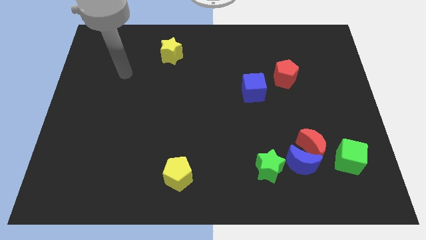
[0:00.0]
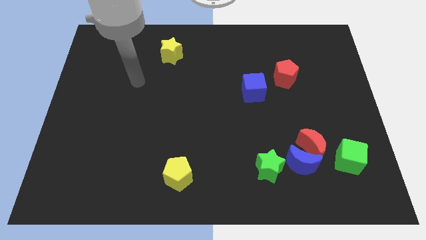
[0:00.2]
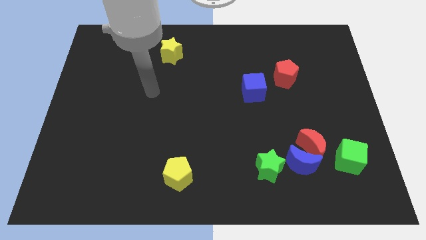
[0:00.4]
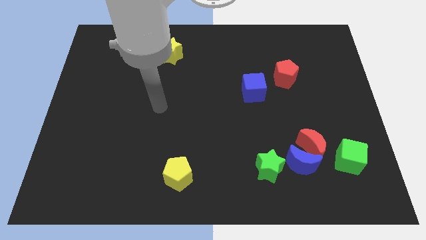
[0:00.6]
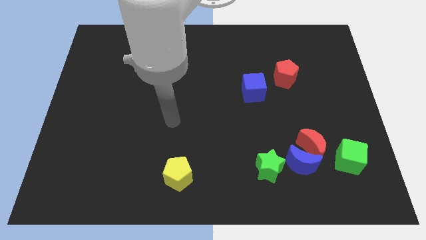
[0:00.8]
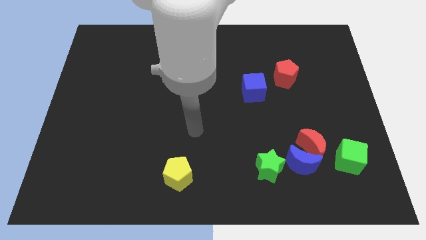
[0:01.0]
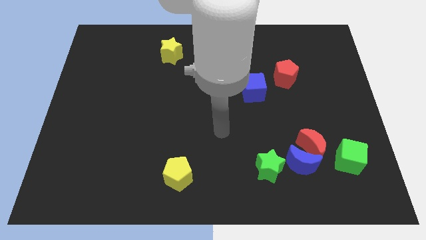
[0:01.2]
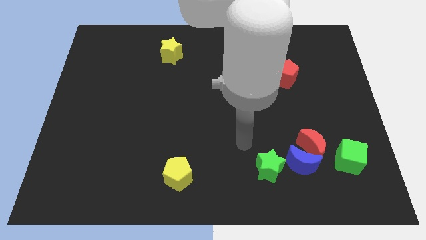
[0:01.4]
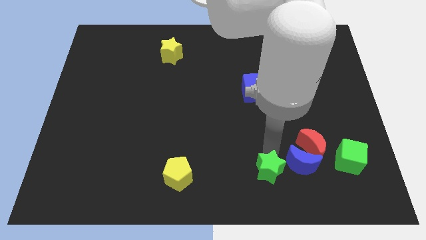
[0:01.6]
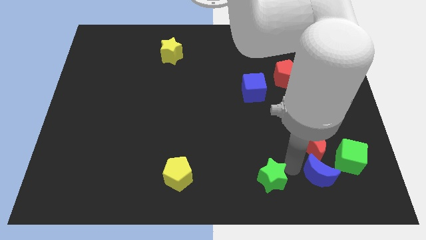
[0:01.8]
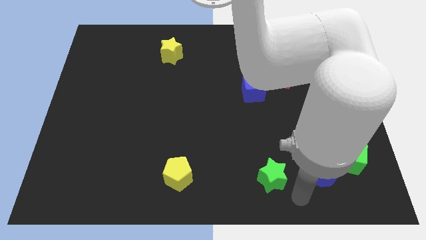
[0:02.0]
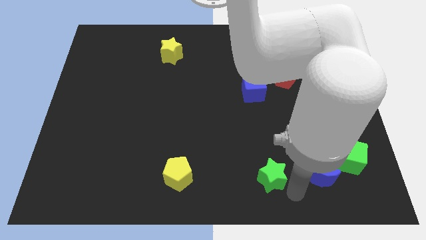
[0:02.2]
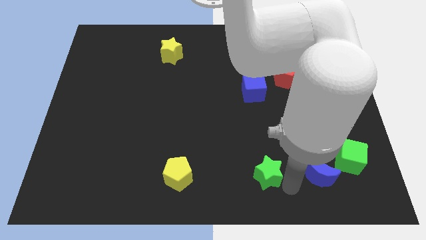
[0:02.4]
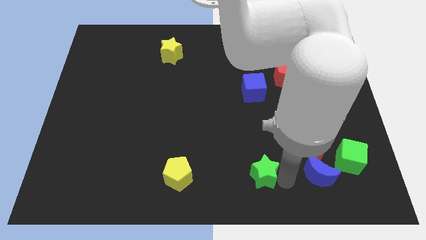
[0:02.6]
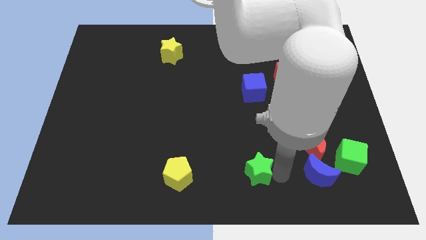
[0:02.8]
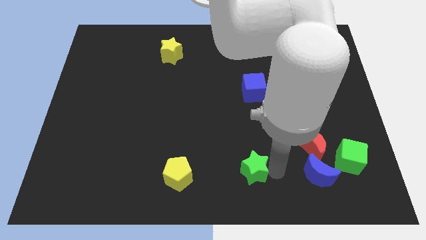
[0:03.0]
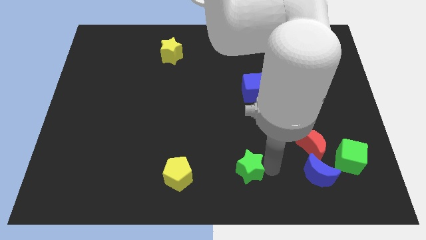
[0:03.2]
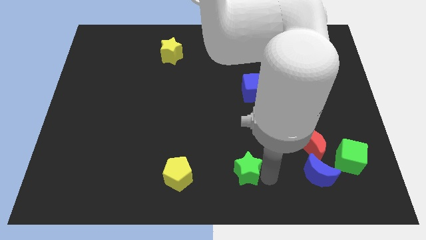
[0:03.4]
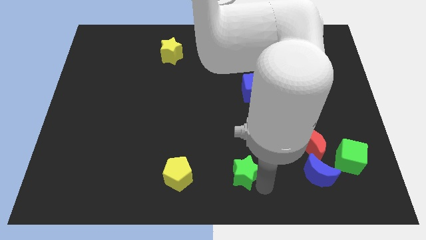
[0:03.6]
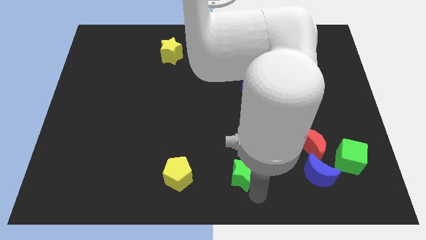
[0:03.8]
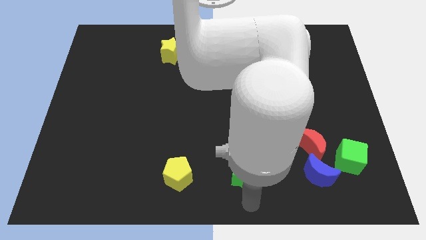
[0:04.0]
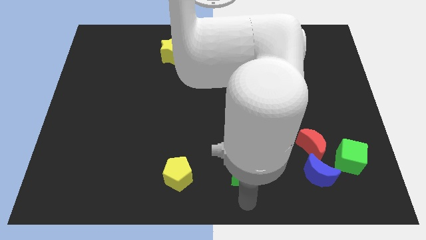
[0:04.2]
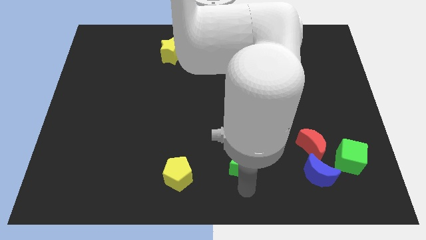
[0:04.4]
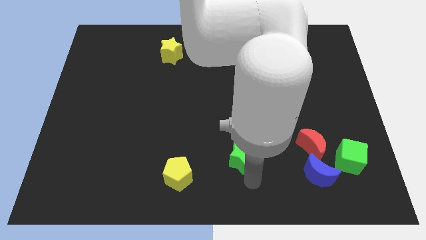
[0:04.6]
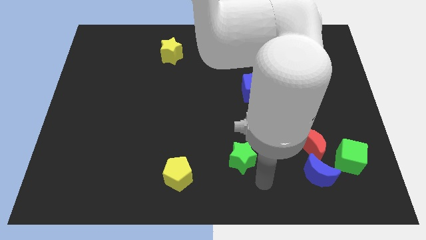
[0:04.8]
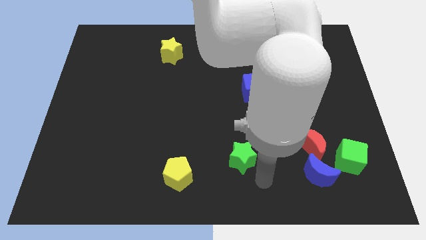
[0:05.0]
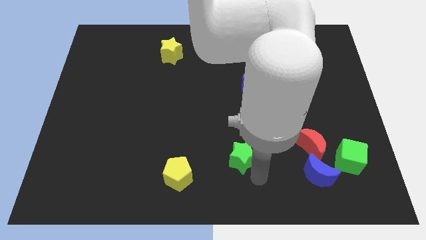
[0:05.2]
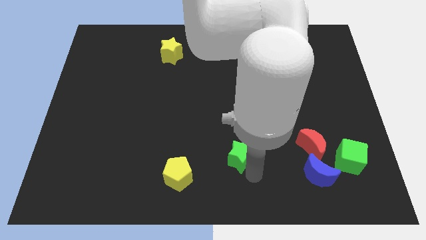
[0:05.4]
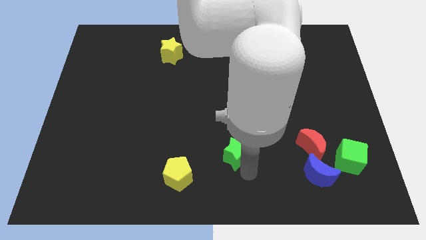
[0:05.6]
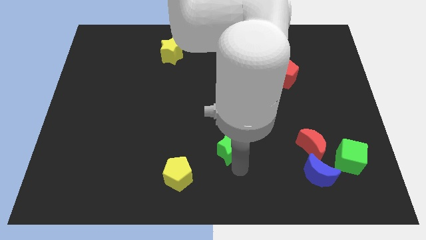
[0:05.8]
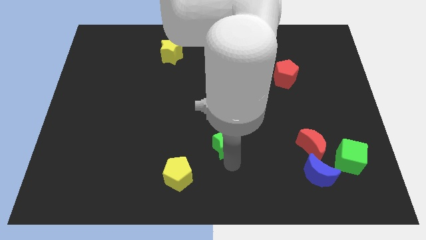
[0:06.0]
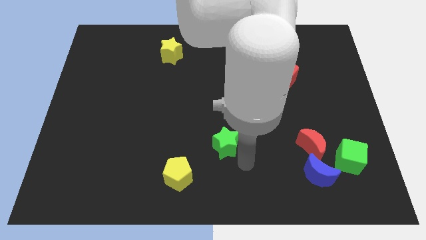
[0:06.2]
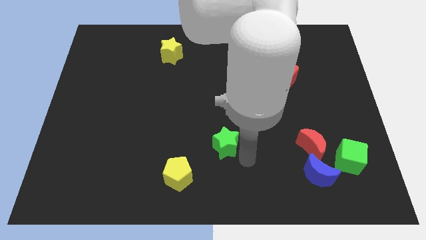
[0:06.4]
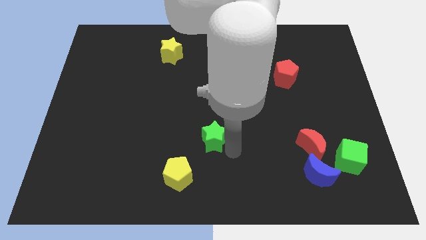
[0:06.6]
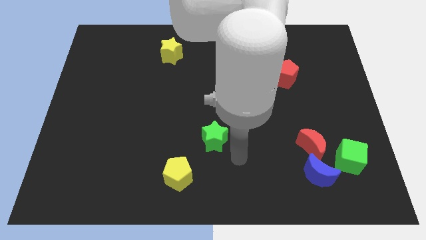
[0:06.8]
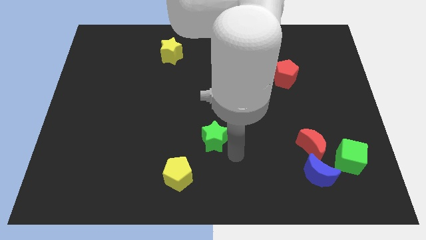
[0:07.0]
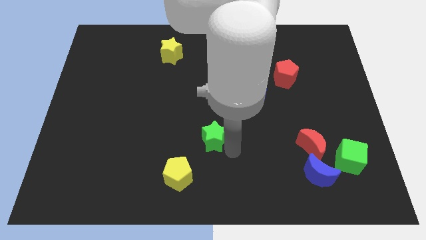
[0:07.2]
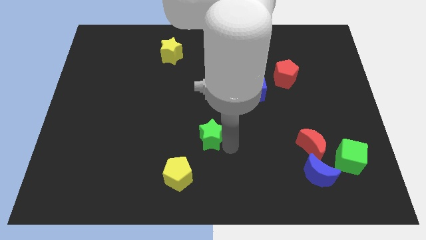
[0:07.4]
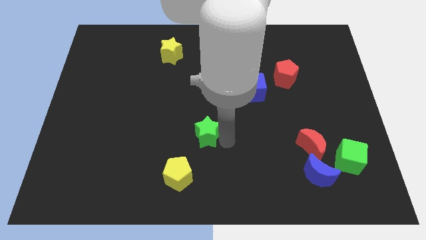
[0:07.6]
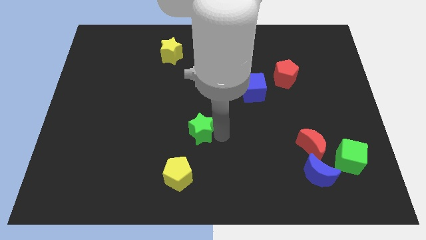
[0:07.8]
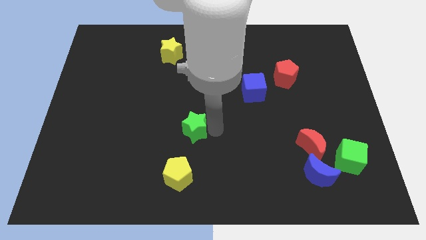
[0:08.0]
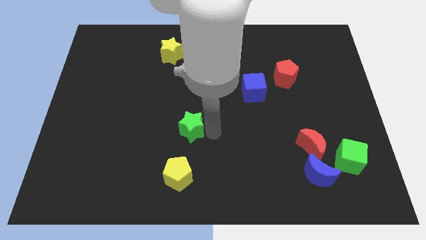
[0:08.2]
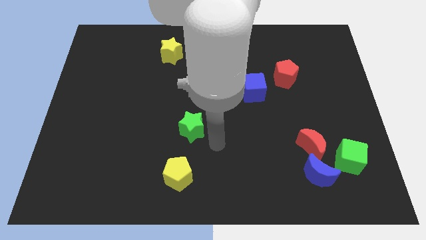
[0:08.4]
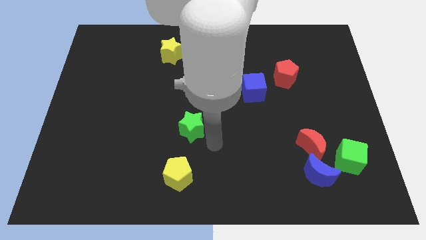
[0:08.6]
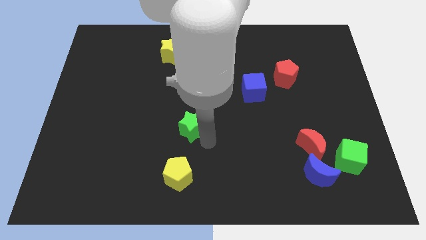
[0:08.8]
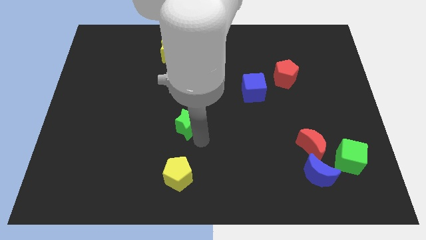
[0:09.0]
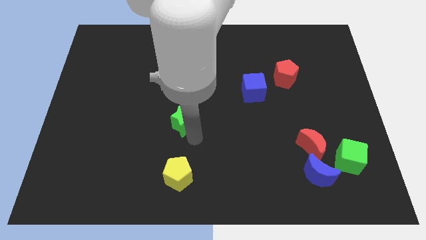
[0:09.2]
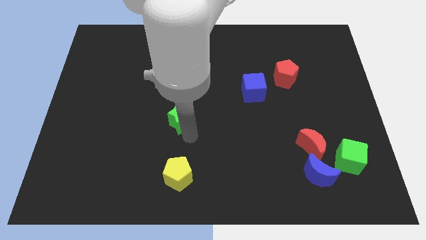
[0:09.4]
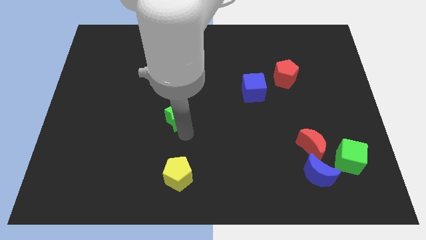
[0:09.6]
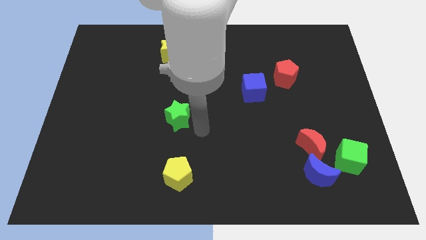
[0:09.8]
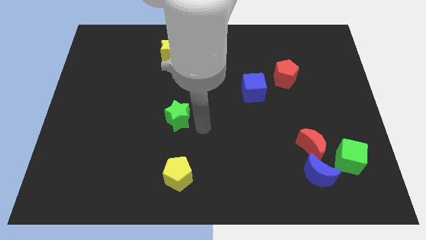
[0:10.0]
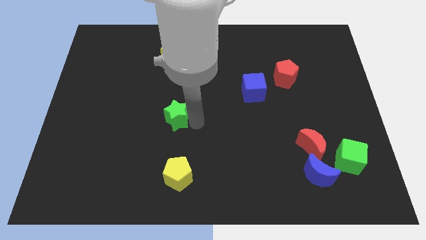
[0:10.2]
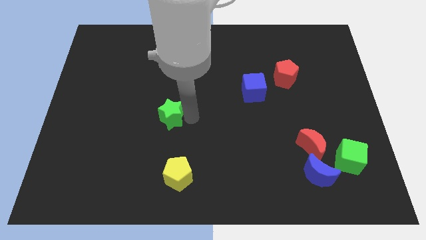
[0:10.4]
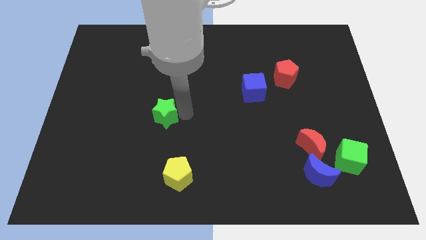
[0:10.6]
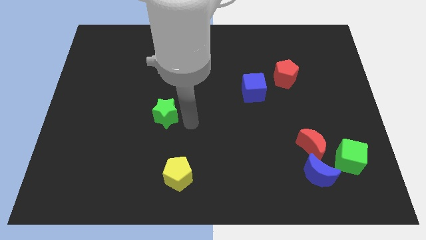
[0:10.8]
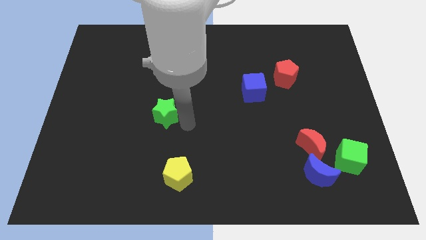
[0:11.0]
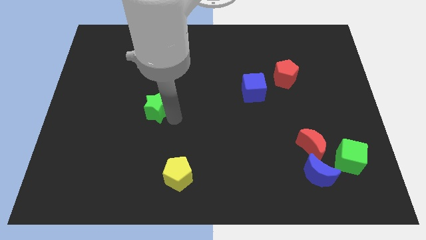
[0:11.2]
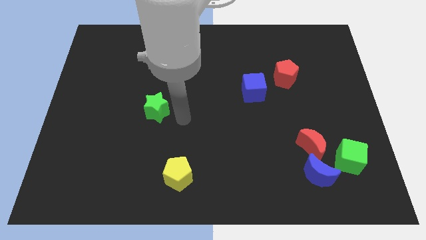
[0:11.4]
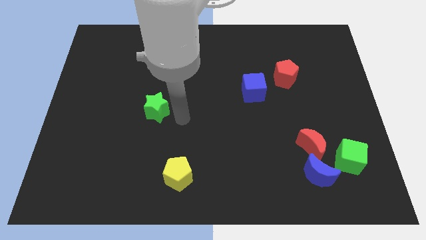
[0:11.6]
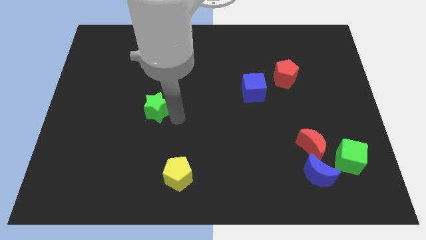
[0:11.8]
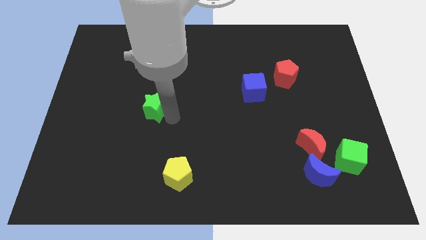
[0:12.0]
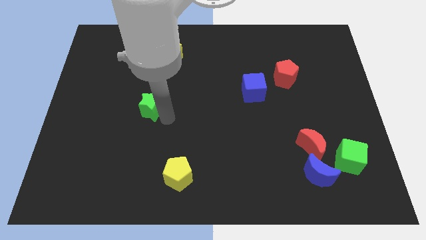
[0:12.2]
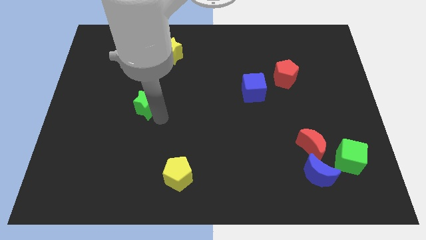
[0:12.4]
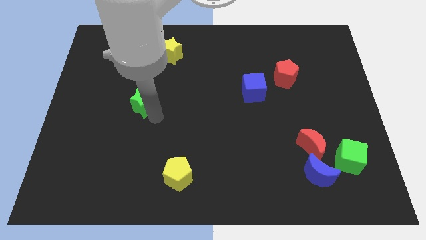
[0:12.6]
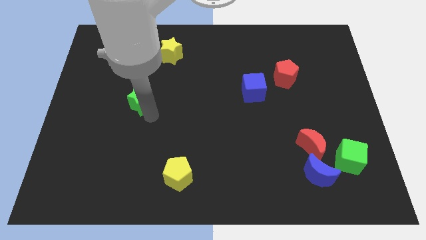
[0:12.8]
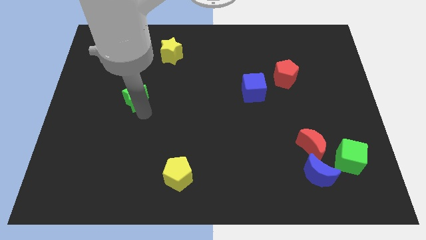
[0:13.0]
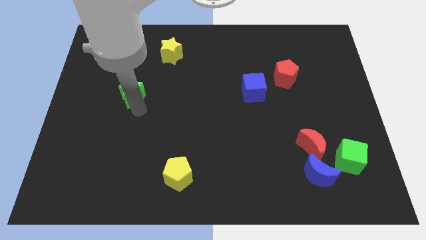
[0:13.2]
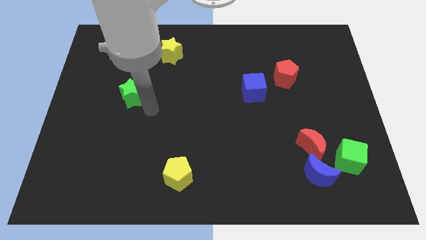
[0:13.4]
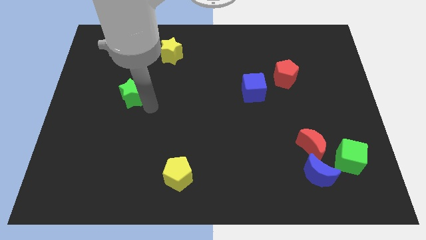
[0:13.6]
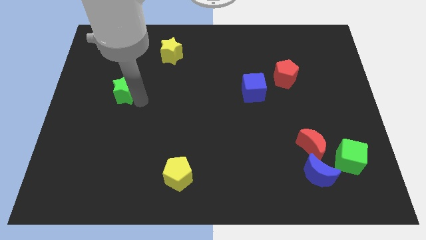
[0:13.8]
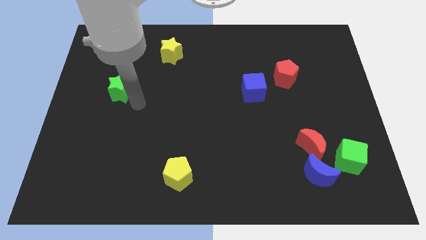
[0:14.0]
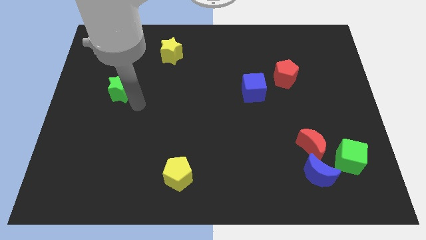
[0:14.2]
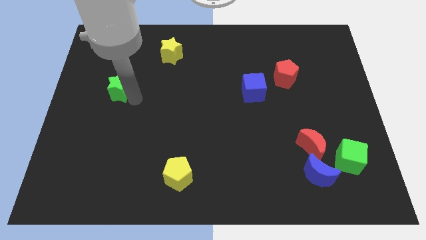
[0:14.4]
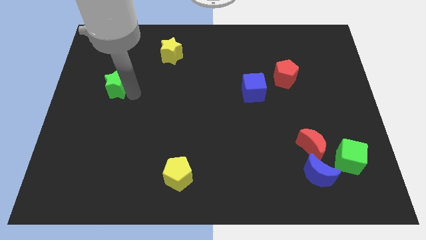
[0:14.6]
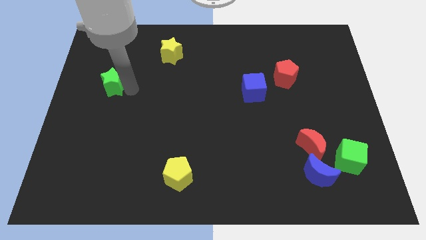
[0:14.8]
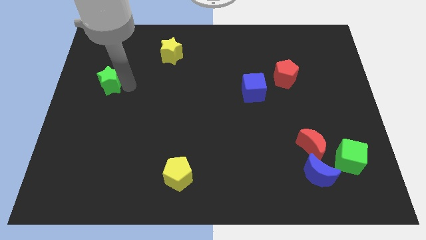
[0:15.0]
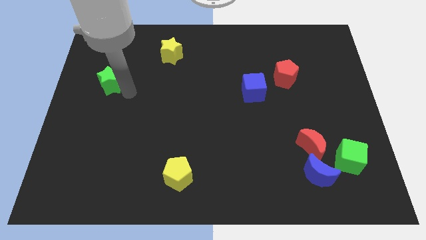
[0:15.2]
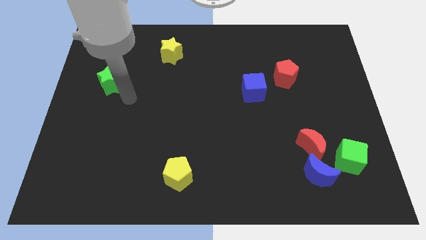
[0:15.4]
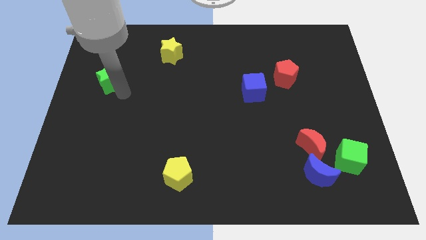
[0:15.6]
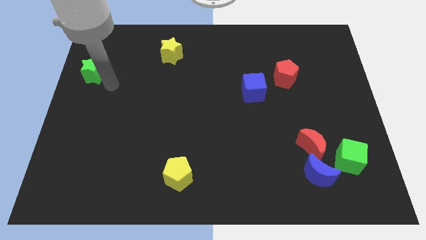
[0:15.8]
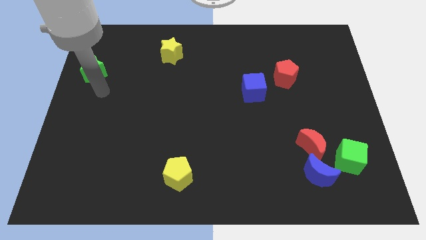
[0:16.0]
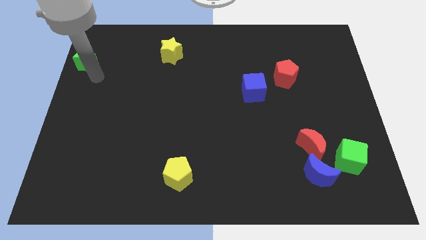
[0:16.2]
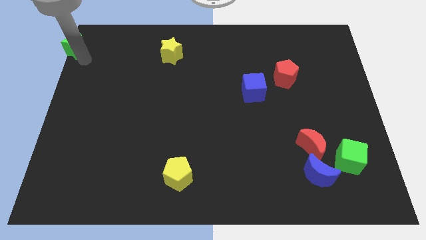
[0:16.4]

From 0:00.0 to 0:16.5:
push the green star to the top left corner
